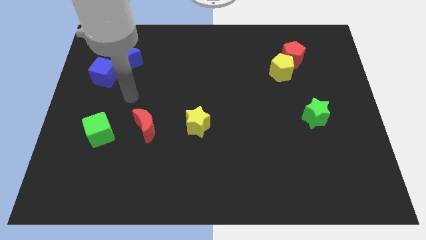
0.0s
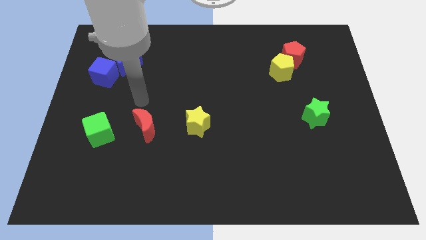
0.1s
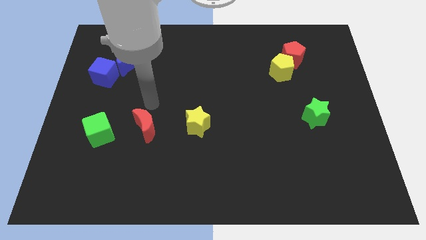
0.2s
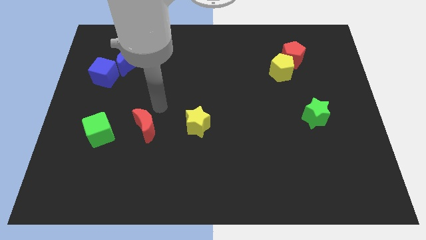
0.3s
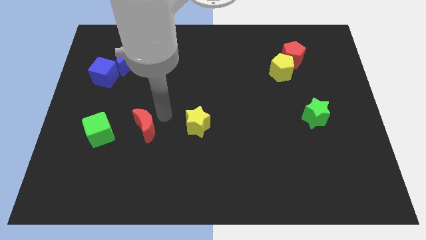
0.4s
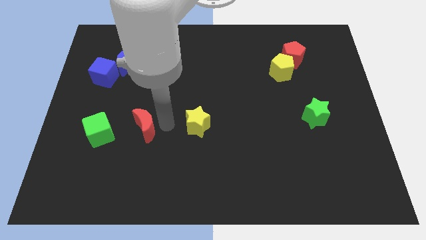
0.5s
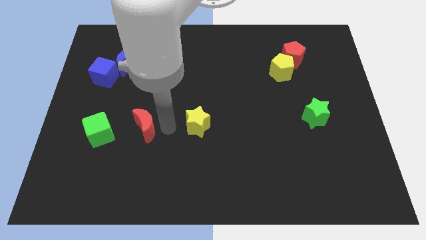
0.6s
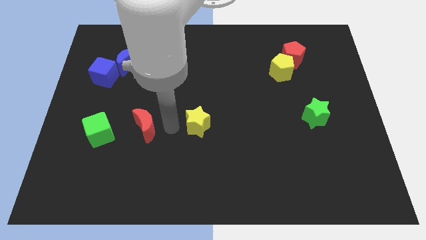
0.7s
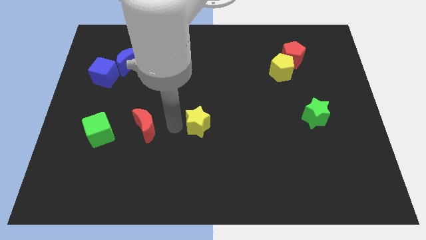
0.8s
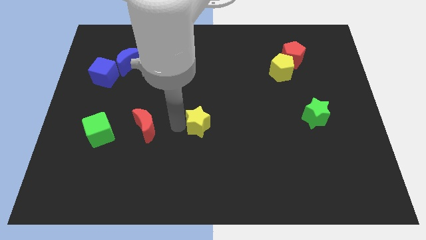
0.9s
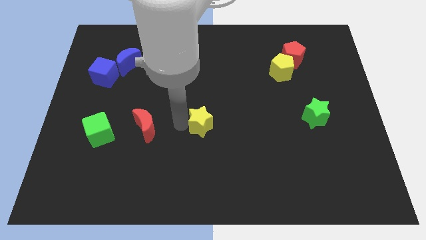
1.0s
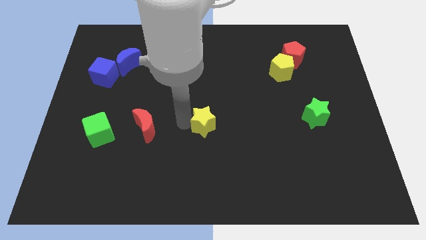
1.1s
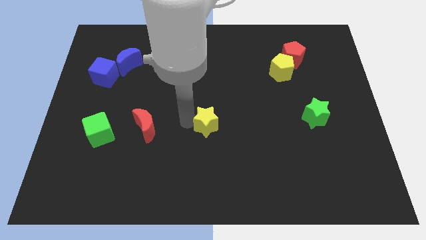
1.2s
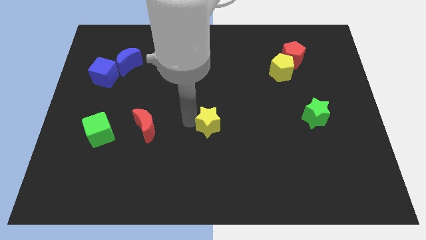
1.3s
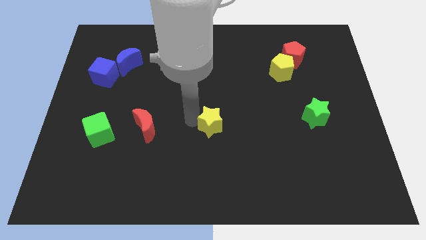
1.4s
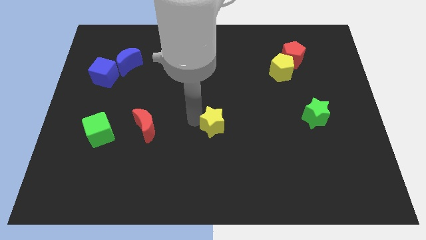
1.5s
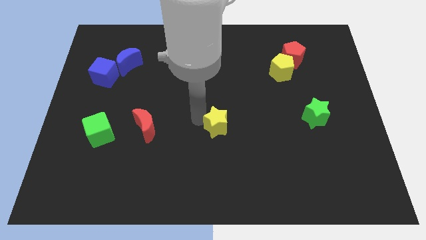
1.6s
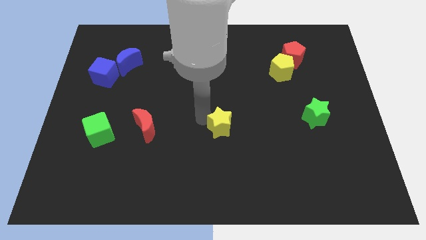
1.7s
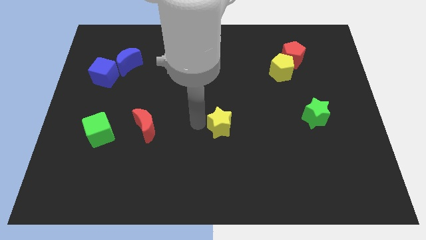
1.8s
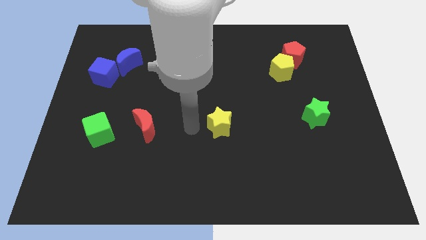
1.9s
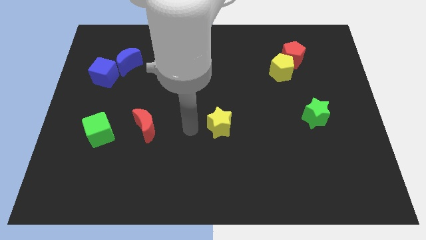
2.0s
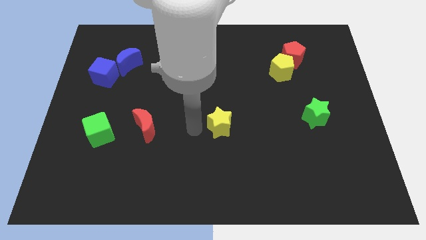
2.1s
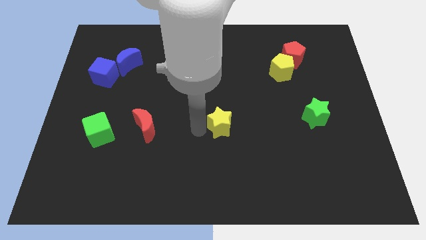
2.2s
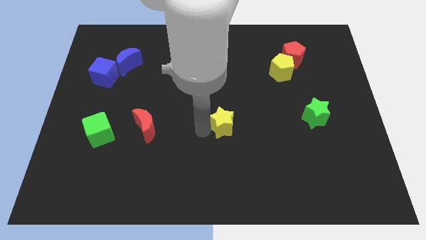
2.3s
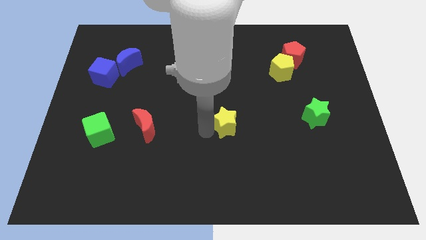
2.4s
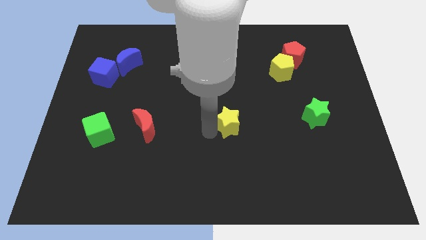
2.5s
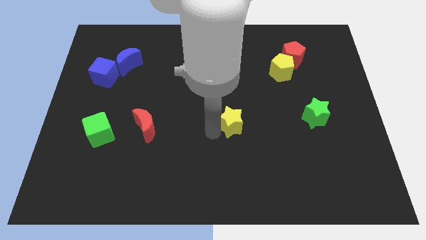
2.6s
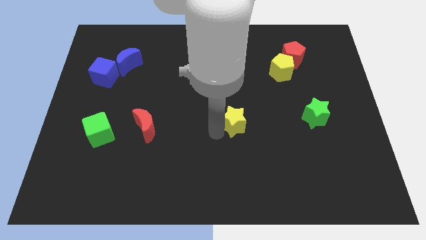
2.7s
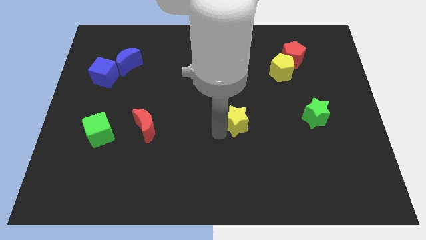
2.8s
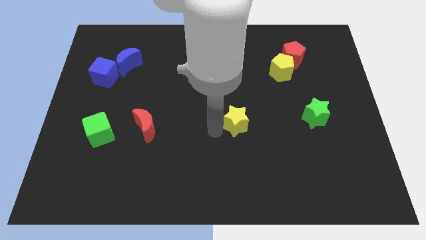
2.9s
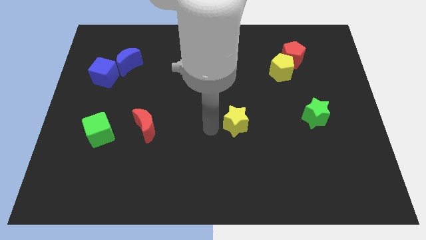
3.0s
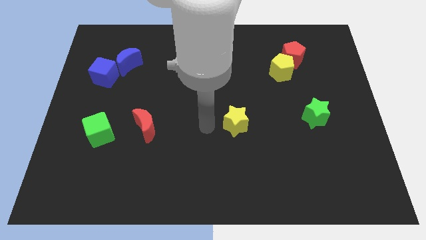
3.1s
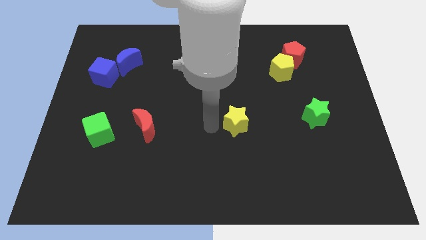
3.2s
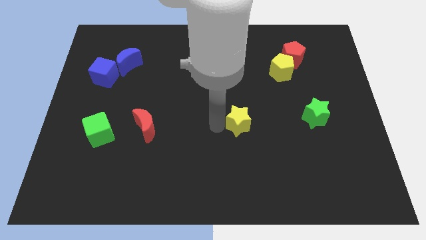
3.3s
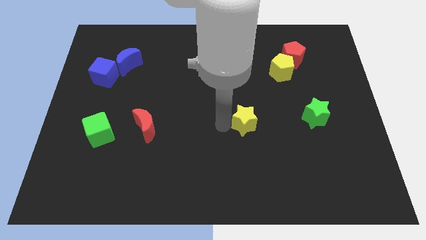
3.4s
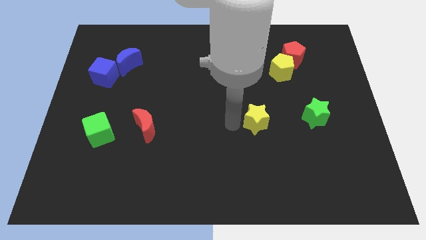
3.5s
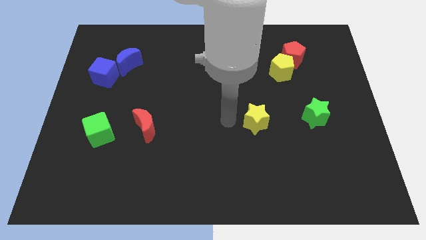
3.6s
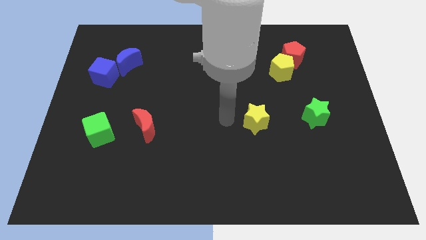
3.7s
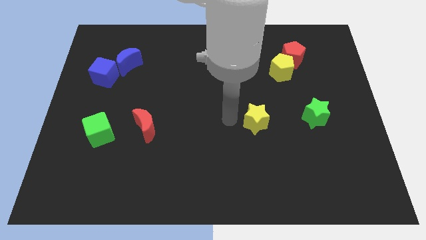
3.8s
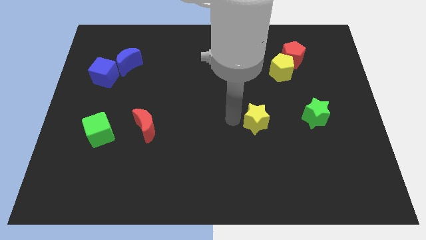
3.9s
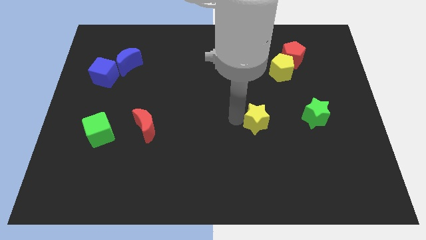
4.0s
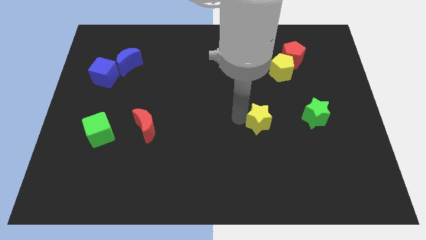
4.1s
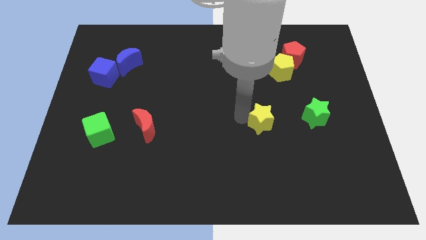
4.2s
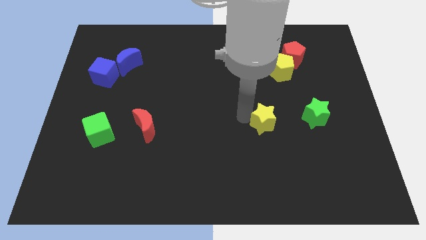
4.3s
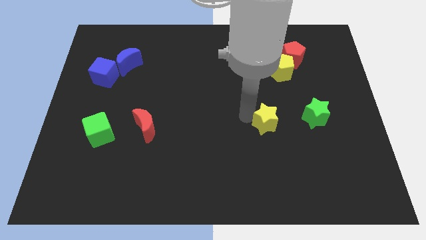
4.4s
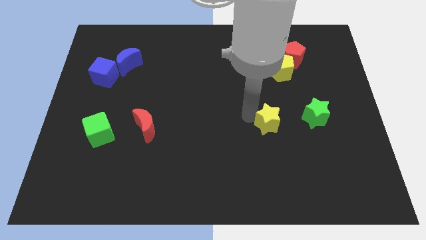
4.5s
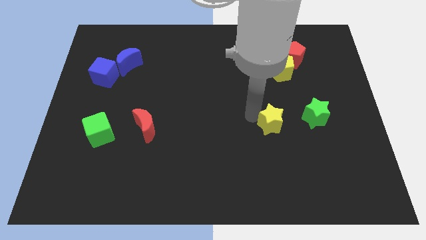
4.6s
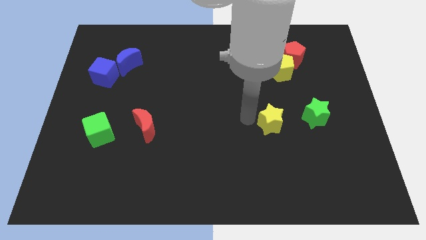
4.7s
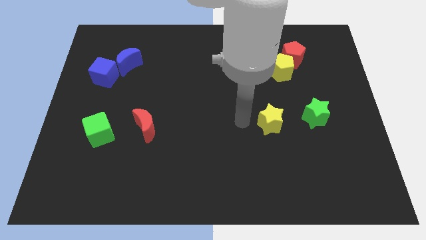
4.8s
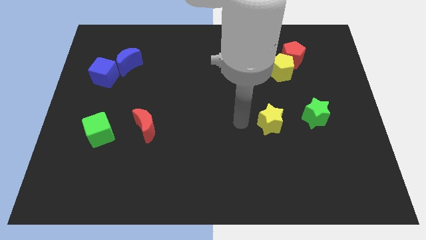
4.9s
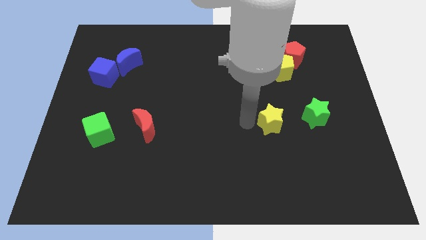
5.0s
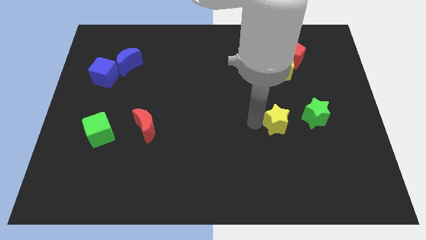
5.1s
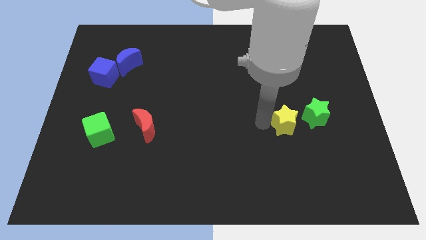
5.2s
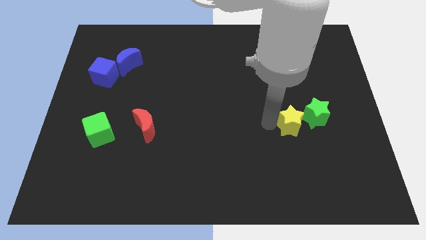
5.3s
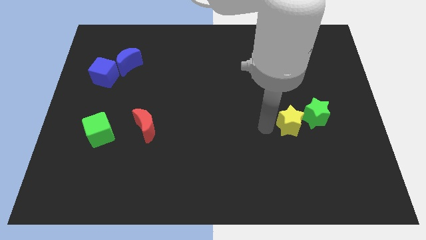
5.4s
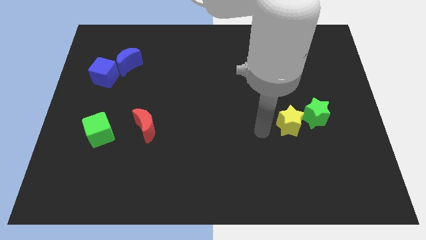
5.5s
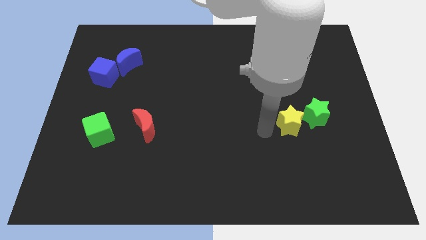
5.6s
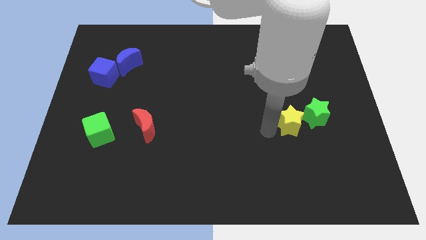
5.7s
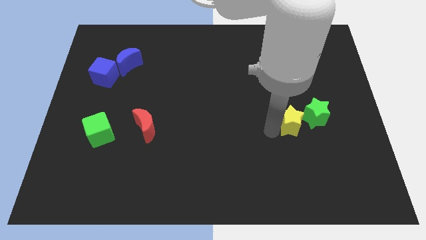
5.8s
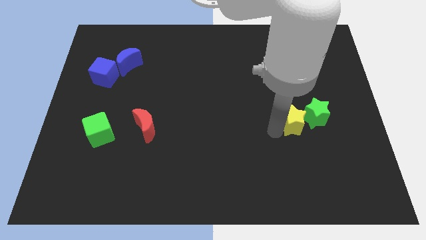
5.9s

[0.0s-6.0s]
move the yellow star to the green star

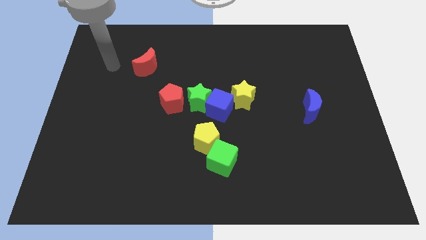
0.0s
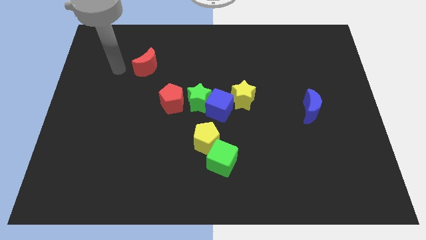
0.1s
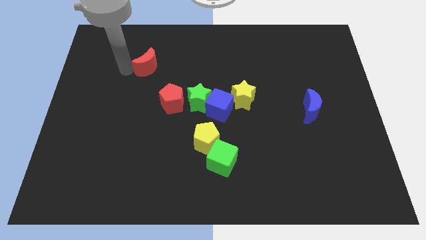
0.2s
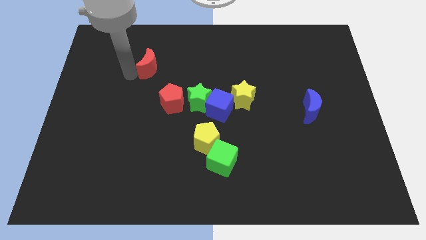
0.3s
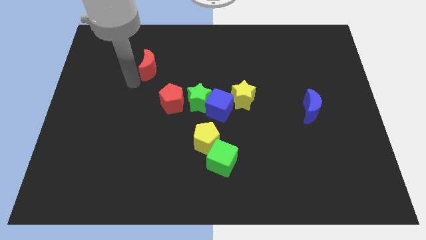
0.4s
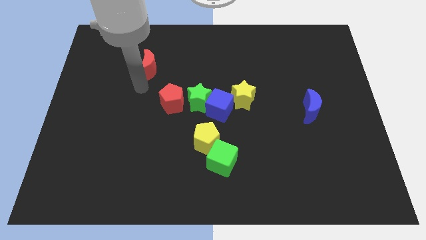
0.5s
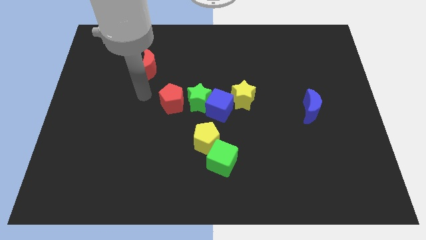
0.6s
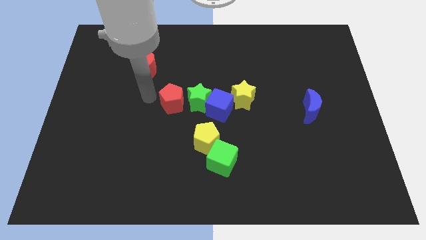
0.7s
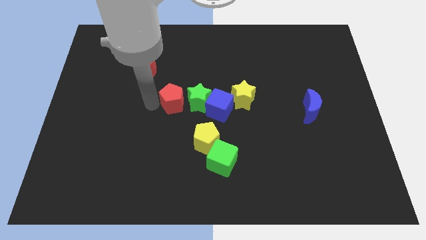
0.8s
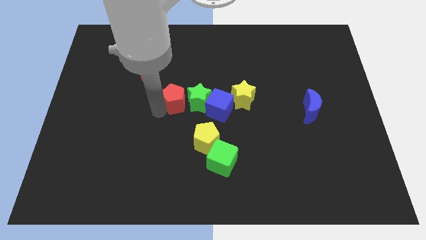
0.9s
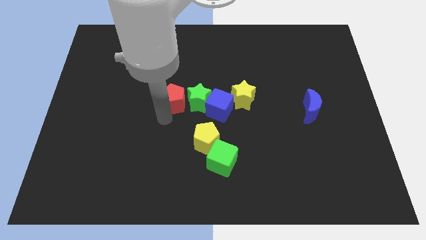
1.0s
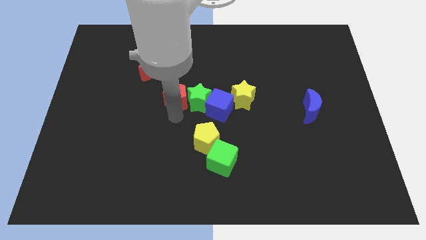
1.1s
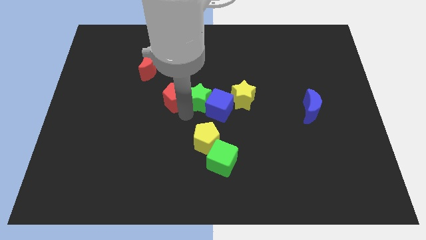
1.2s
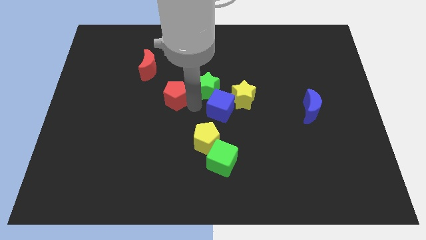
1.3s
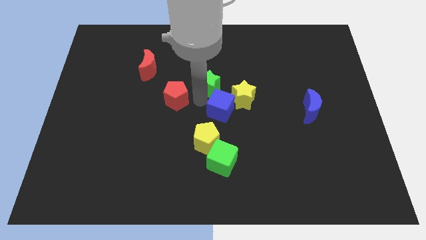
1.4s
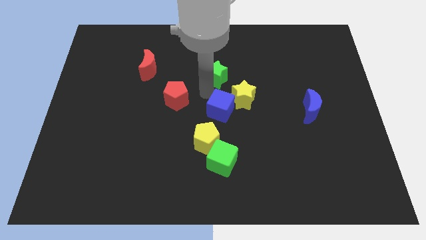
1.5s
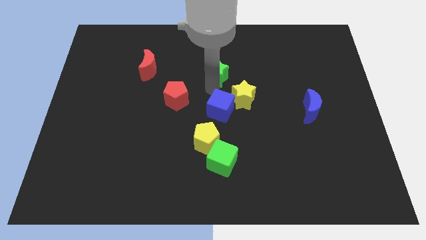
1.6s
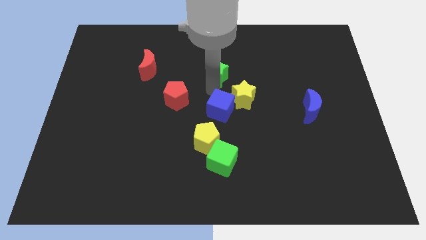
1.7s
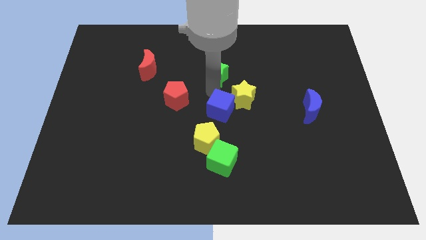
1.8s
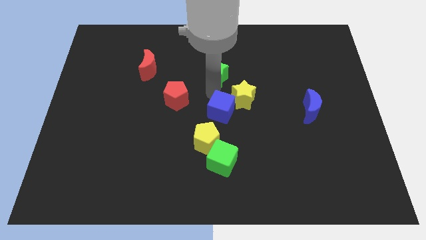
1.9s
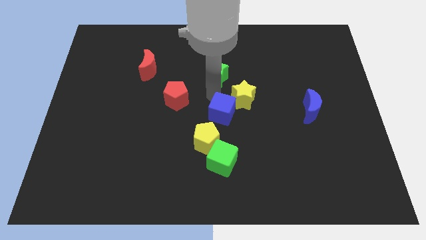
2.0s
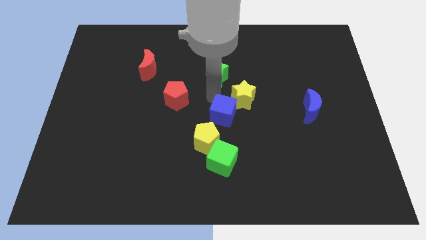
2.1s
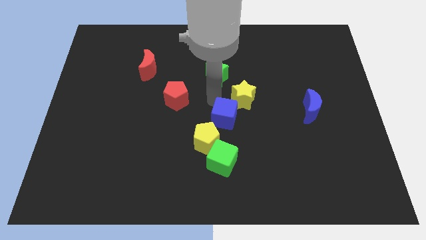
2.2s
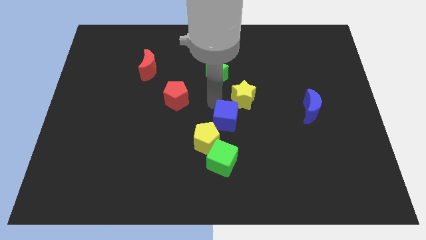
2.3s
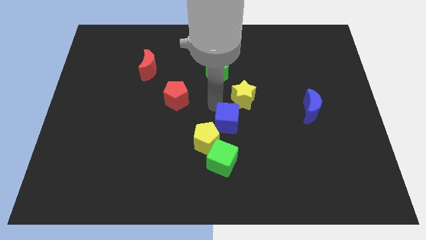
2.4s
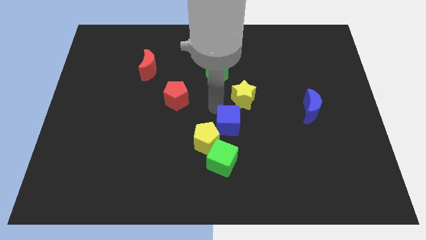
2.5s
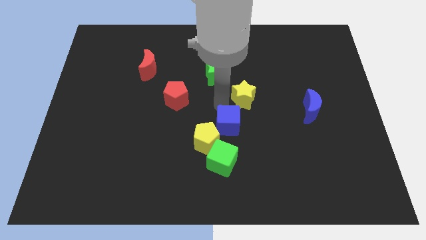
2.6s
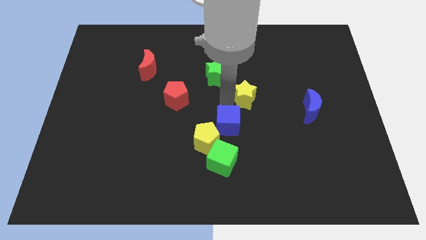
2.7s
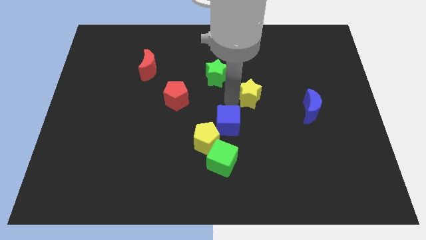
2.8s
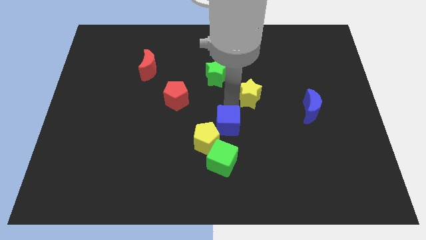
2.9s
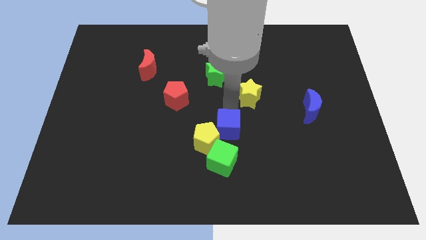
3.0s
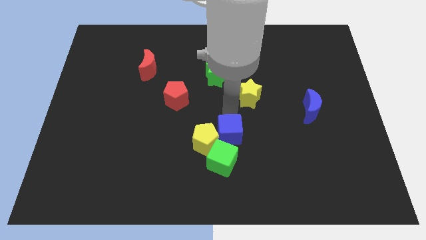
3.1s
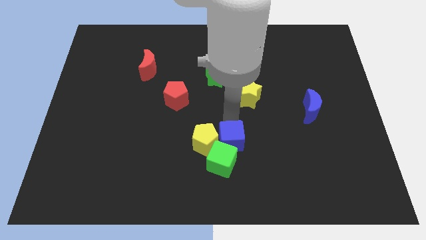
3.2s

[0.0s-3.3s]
slide the blue cube towards the green cube
